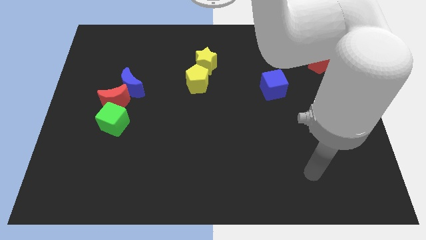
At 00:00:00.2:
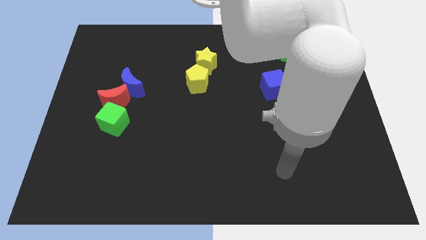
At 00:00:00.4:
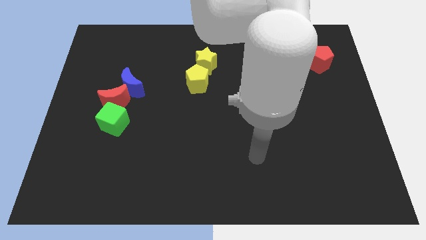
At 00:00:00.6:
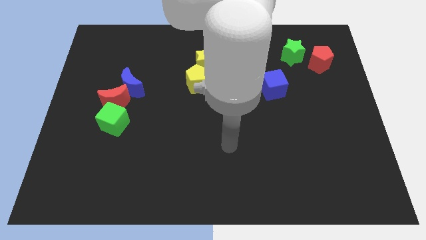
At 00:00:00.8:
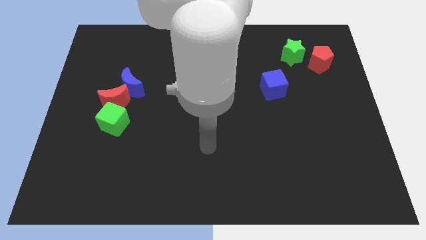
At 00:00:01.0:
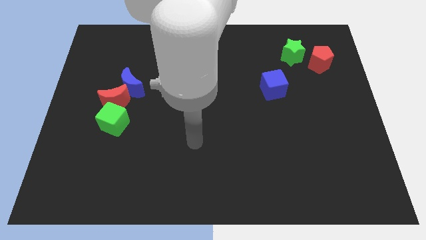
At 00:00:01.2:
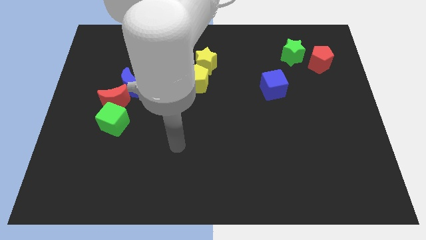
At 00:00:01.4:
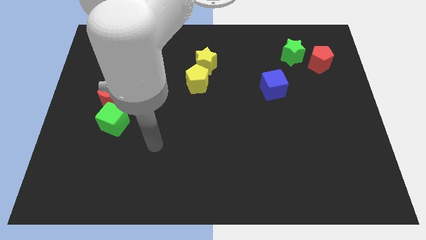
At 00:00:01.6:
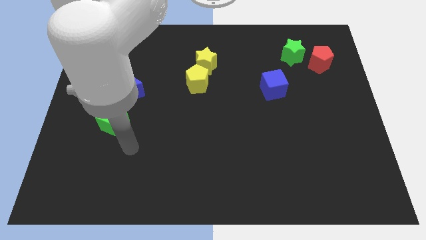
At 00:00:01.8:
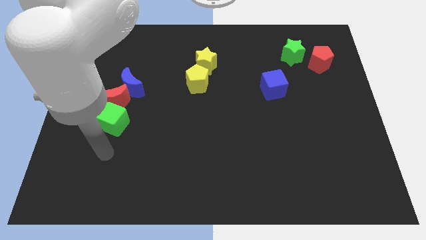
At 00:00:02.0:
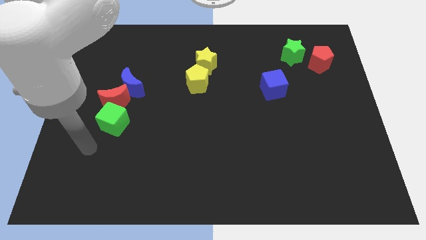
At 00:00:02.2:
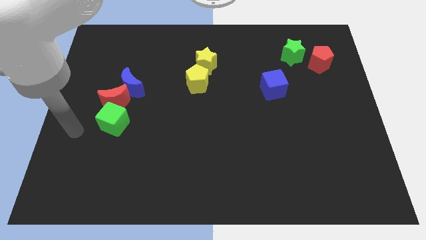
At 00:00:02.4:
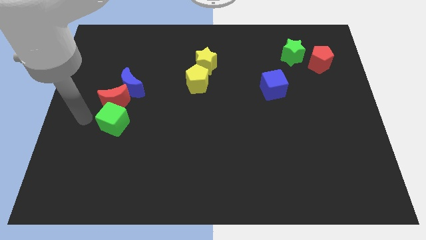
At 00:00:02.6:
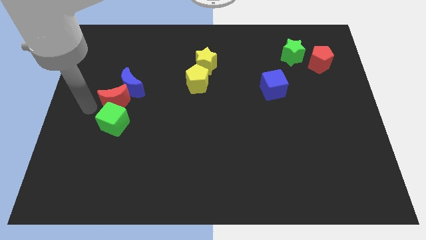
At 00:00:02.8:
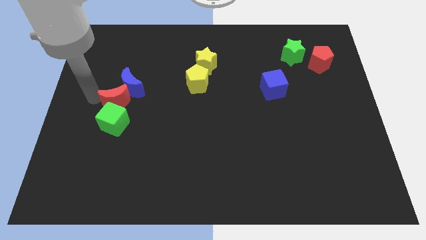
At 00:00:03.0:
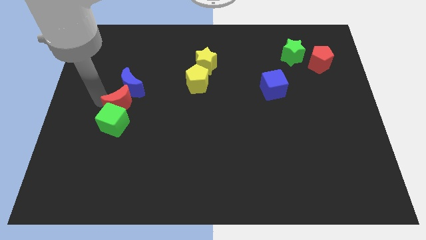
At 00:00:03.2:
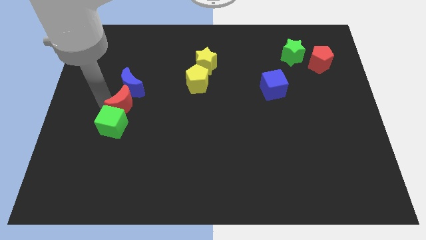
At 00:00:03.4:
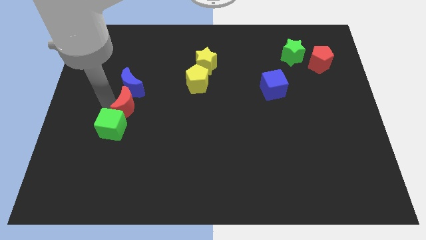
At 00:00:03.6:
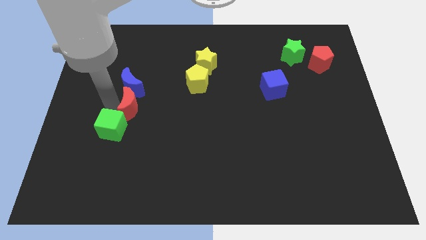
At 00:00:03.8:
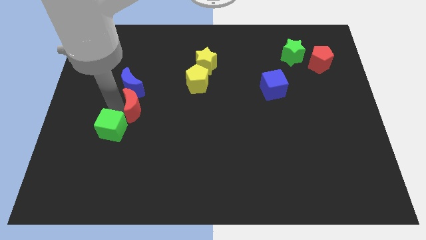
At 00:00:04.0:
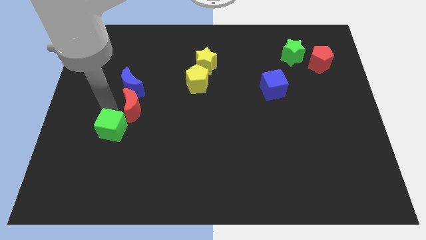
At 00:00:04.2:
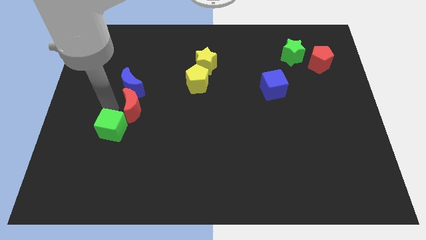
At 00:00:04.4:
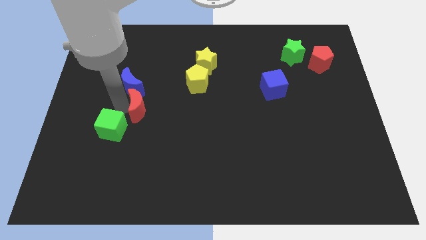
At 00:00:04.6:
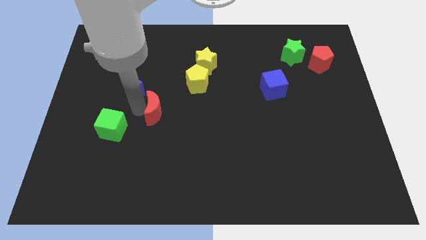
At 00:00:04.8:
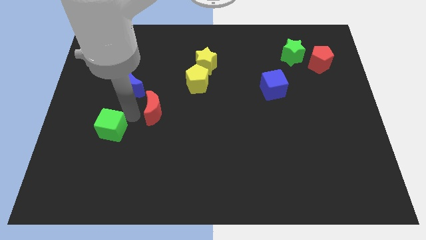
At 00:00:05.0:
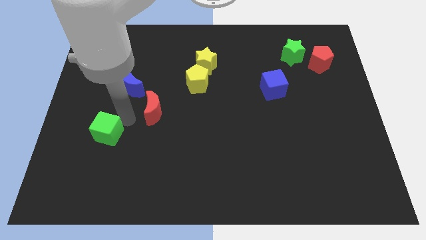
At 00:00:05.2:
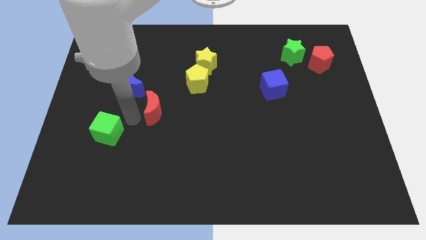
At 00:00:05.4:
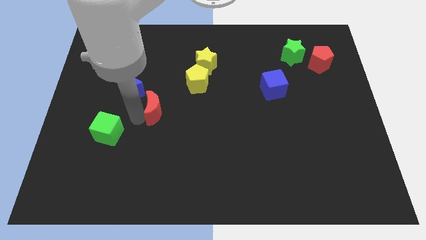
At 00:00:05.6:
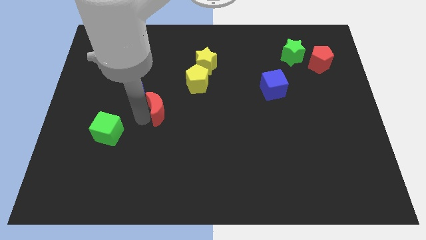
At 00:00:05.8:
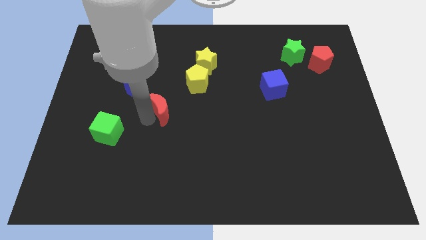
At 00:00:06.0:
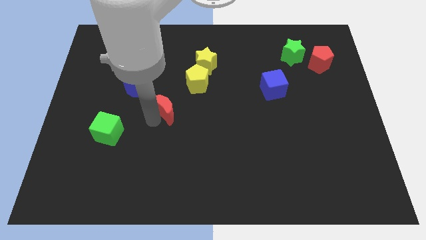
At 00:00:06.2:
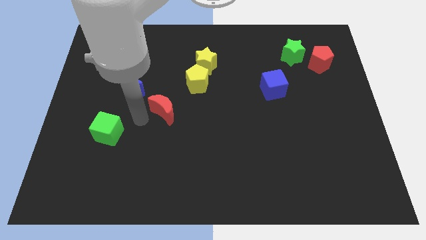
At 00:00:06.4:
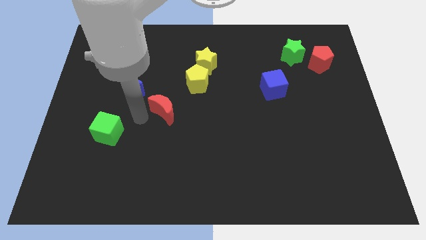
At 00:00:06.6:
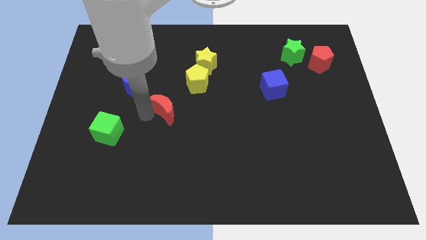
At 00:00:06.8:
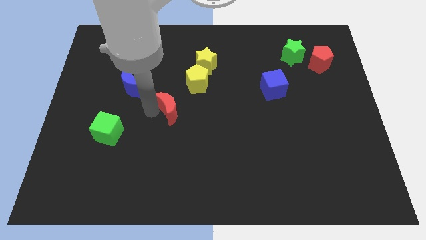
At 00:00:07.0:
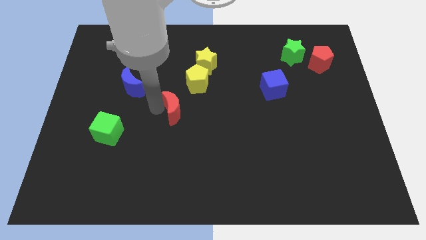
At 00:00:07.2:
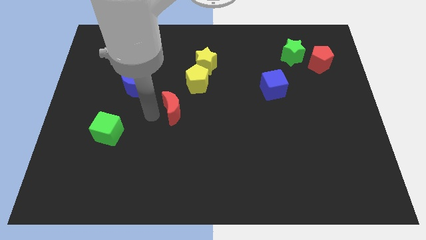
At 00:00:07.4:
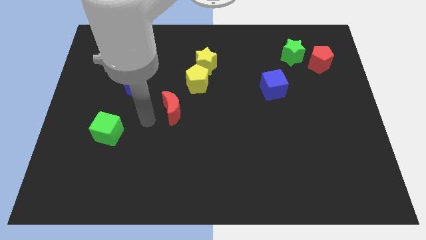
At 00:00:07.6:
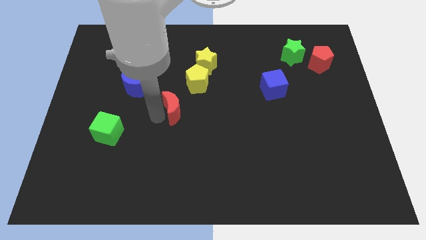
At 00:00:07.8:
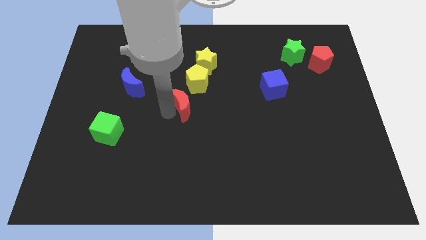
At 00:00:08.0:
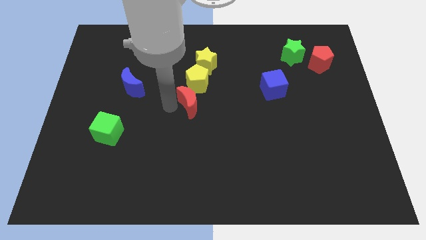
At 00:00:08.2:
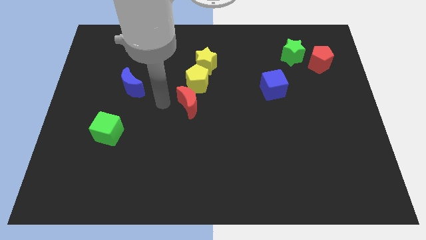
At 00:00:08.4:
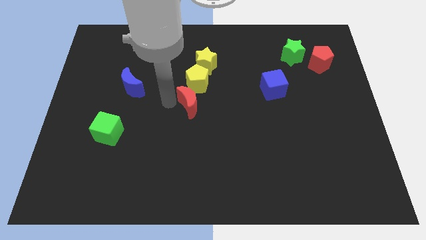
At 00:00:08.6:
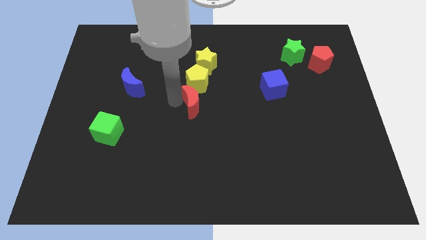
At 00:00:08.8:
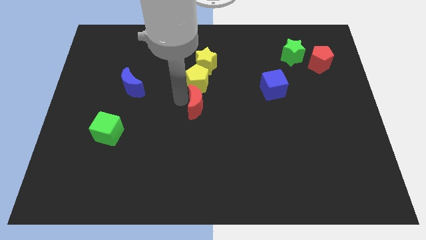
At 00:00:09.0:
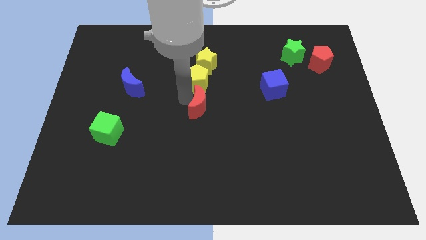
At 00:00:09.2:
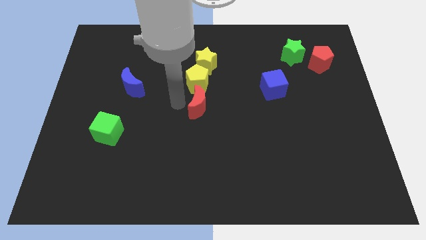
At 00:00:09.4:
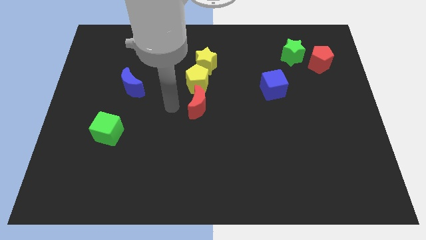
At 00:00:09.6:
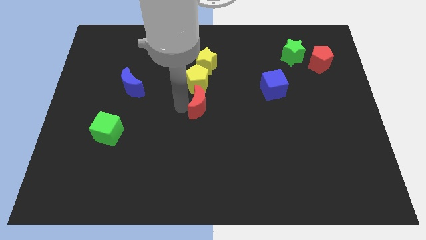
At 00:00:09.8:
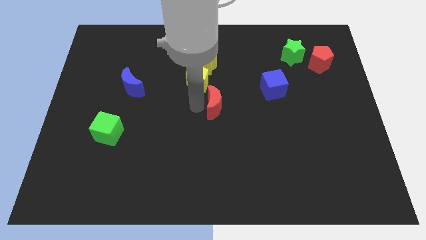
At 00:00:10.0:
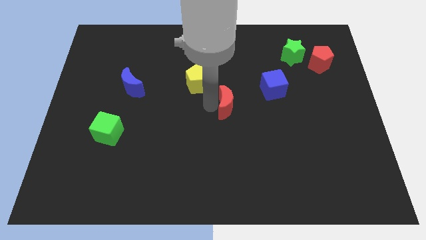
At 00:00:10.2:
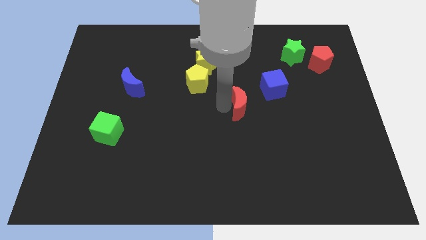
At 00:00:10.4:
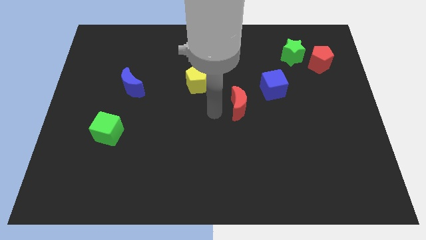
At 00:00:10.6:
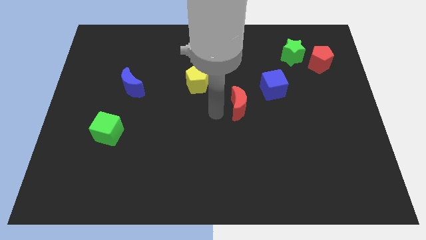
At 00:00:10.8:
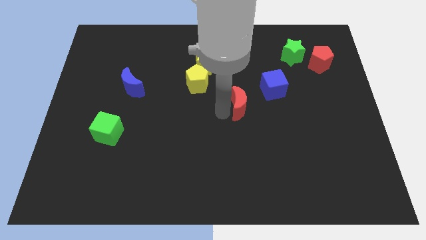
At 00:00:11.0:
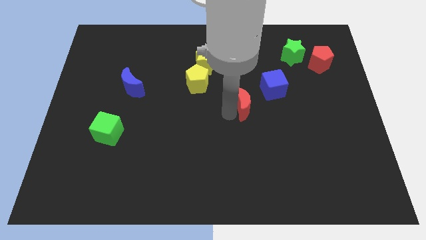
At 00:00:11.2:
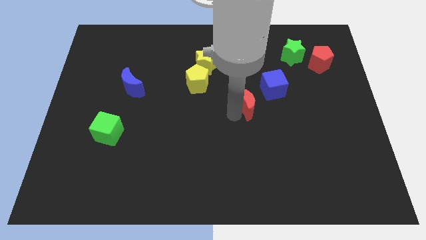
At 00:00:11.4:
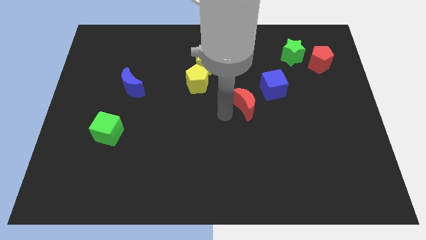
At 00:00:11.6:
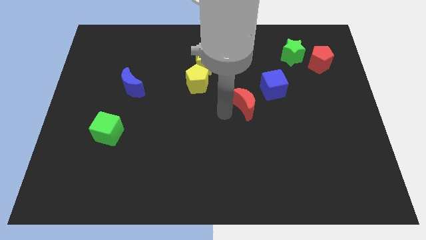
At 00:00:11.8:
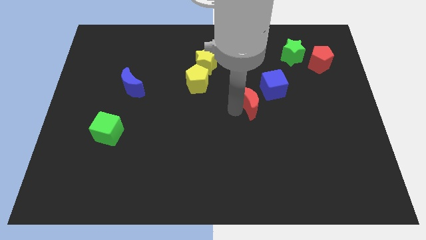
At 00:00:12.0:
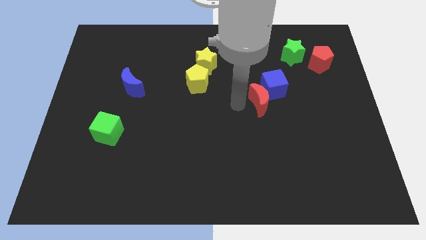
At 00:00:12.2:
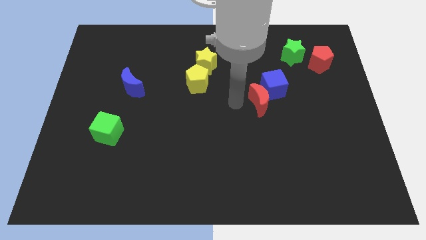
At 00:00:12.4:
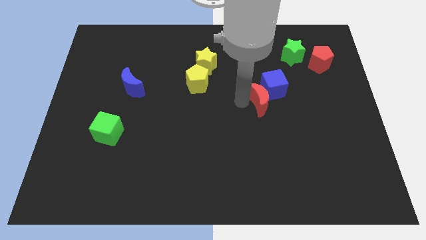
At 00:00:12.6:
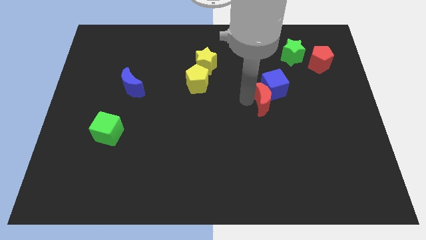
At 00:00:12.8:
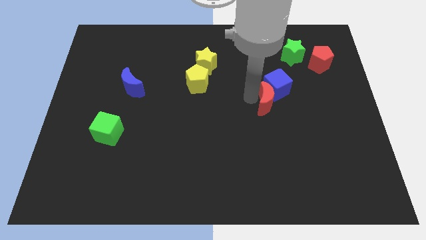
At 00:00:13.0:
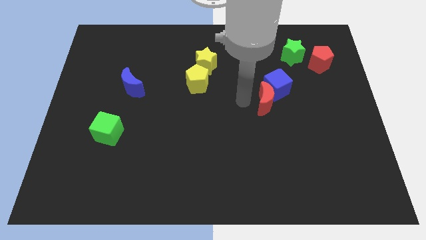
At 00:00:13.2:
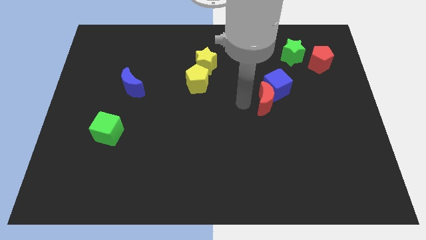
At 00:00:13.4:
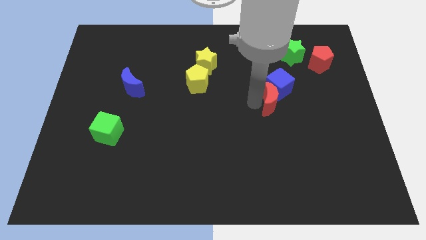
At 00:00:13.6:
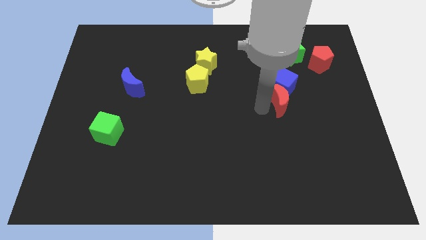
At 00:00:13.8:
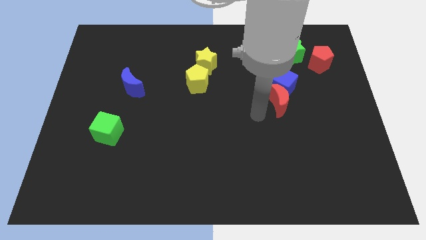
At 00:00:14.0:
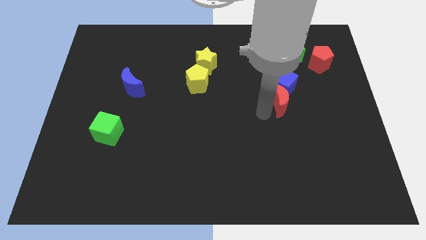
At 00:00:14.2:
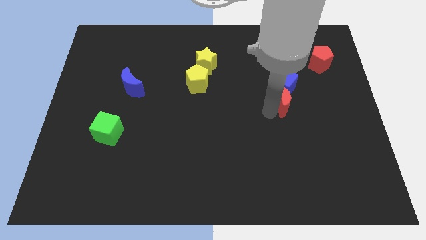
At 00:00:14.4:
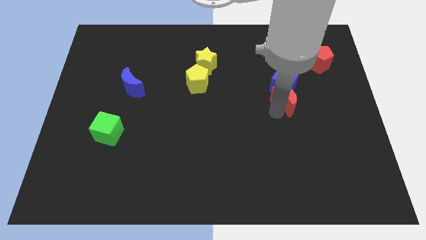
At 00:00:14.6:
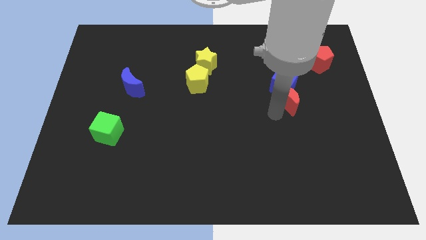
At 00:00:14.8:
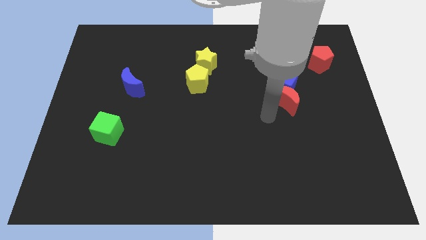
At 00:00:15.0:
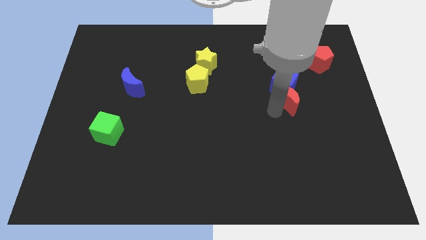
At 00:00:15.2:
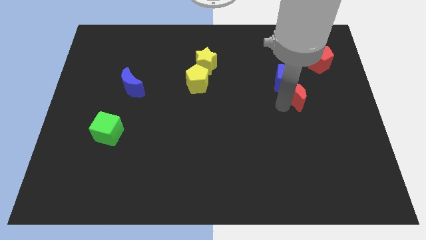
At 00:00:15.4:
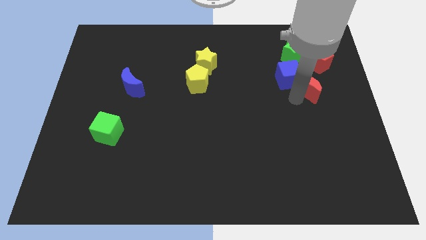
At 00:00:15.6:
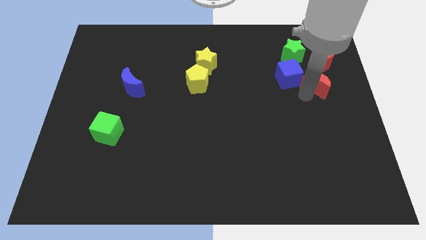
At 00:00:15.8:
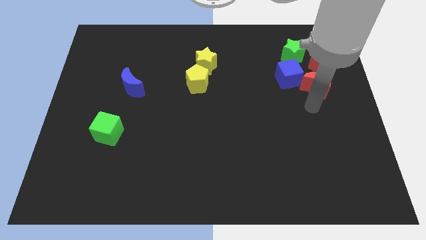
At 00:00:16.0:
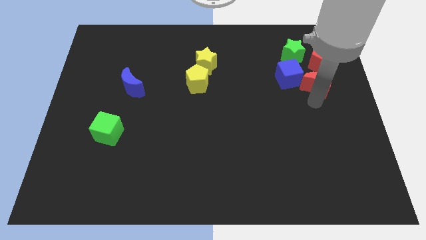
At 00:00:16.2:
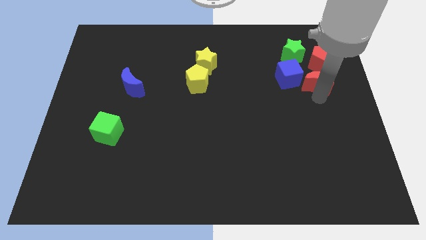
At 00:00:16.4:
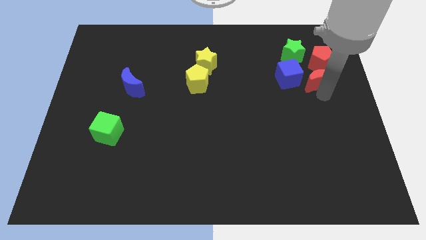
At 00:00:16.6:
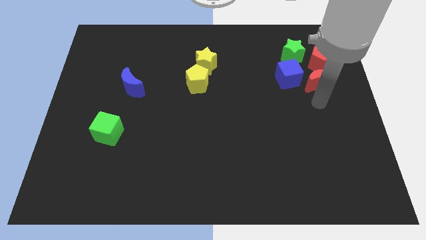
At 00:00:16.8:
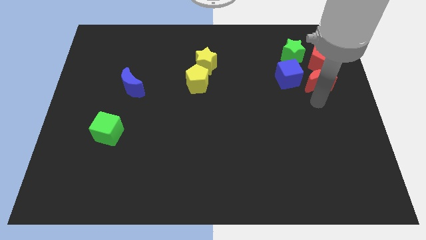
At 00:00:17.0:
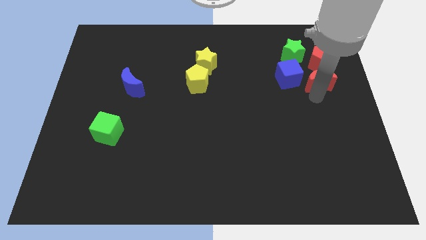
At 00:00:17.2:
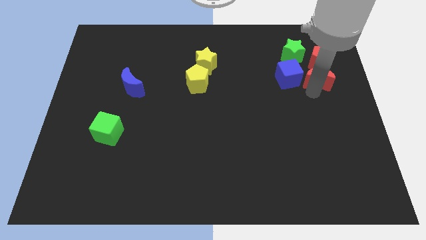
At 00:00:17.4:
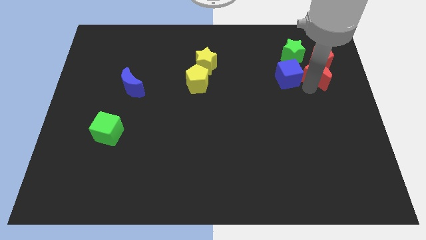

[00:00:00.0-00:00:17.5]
slide the red moon towards the red pentagon
